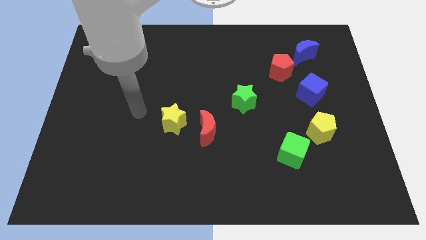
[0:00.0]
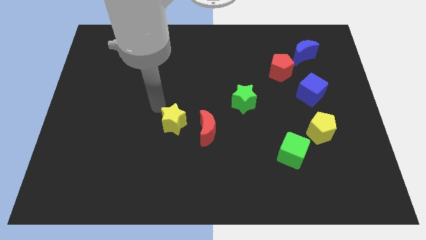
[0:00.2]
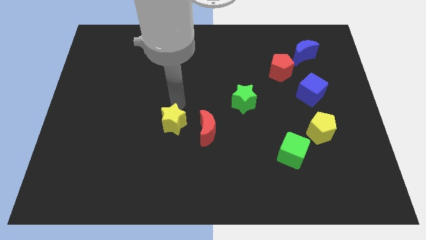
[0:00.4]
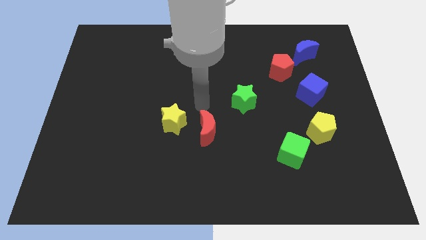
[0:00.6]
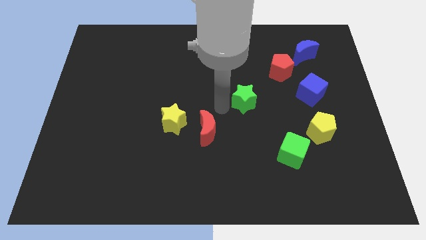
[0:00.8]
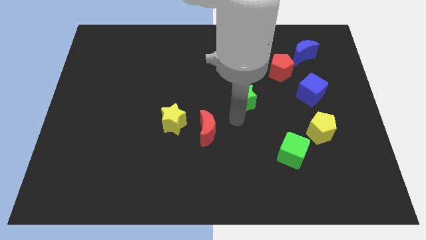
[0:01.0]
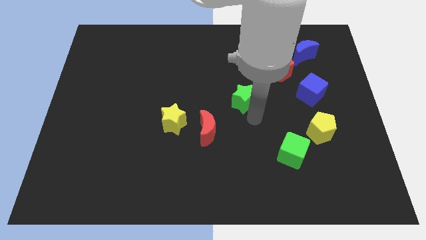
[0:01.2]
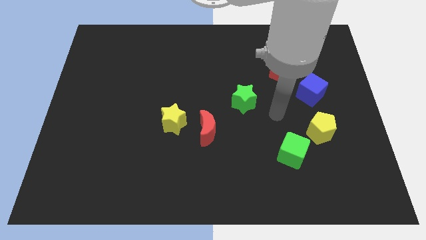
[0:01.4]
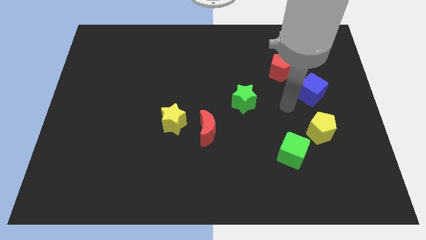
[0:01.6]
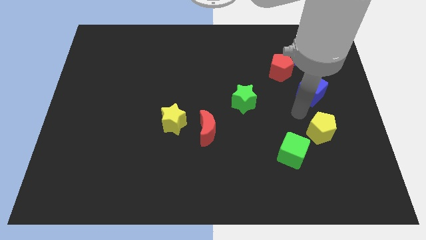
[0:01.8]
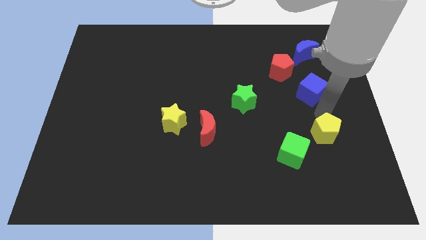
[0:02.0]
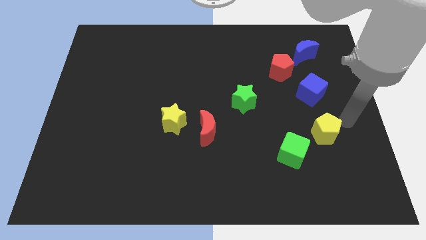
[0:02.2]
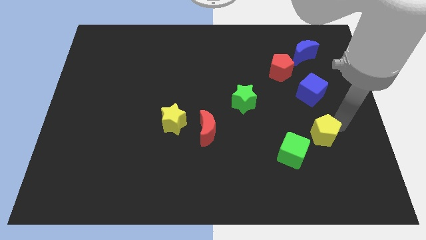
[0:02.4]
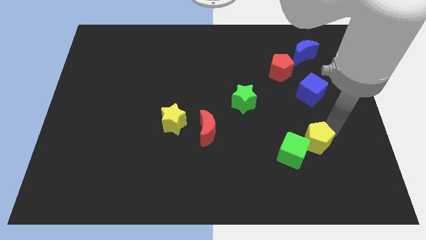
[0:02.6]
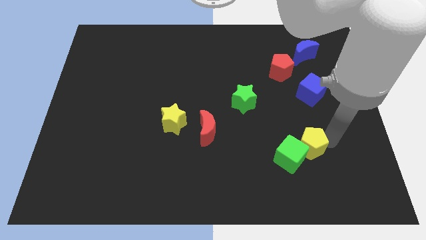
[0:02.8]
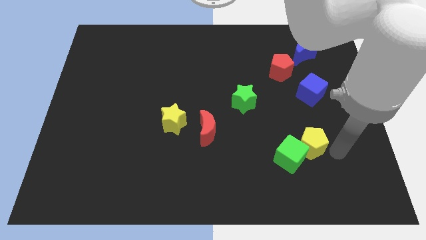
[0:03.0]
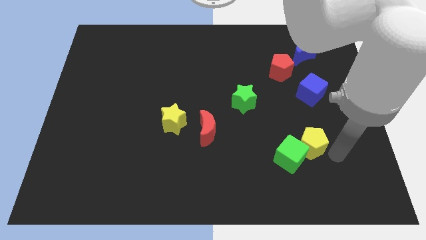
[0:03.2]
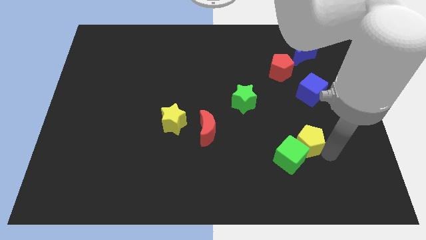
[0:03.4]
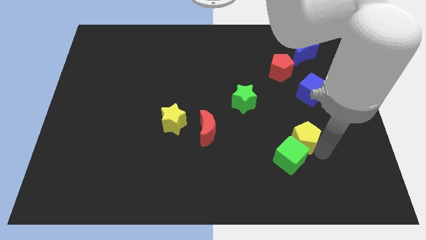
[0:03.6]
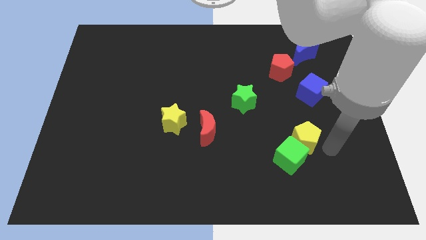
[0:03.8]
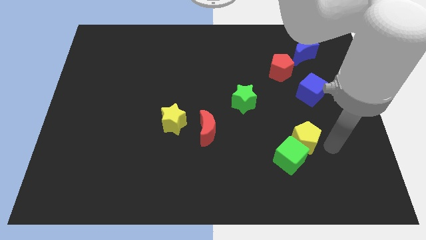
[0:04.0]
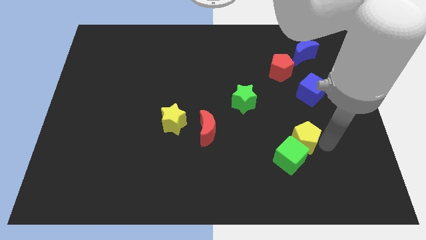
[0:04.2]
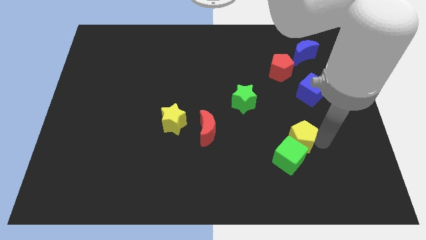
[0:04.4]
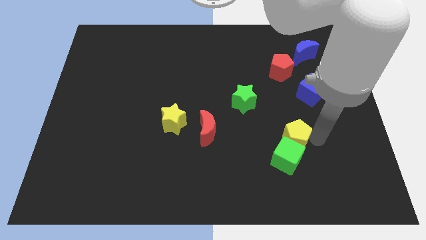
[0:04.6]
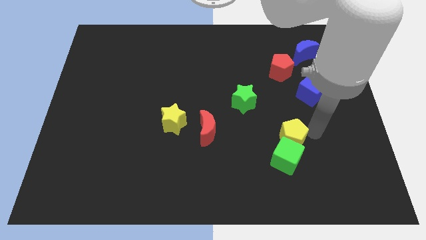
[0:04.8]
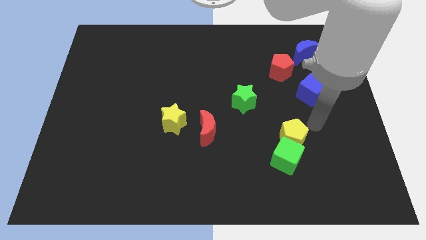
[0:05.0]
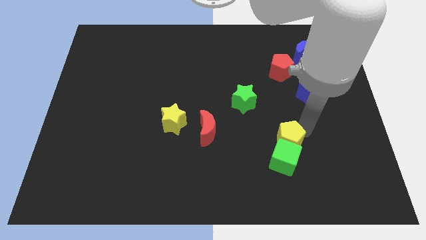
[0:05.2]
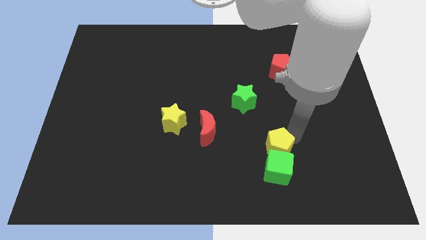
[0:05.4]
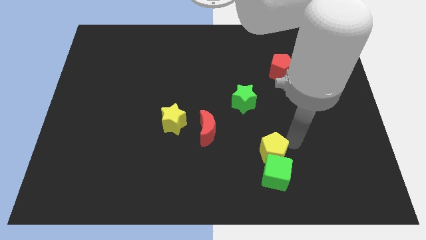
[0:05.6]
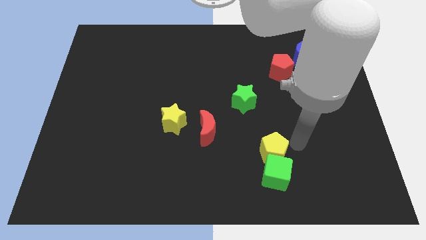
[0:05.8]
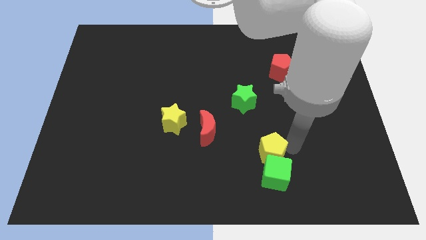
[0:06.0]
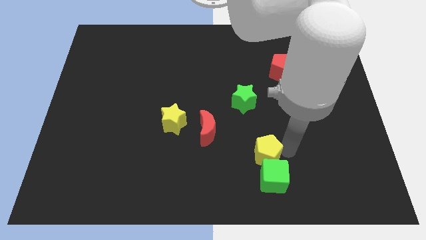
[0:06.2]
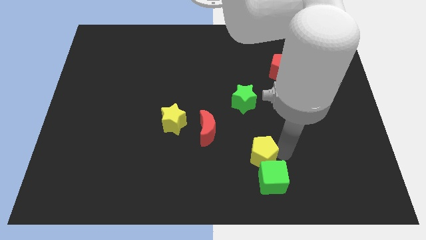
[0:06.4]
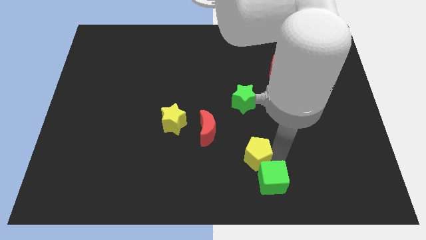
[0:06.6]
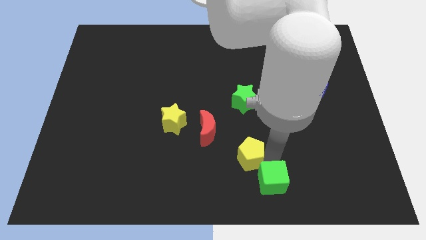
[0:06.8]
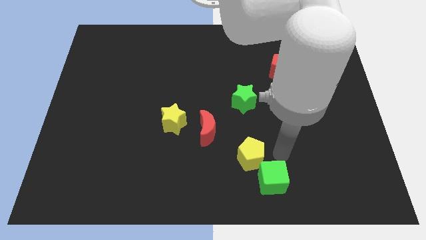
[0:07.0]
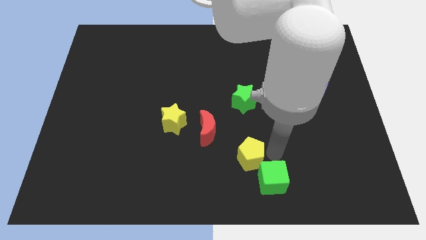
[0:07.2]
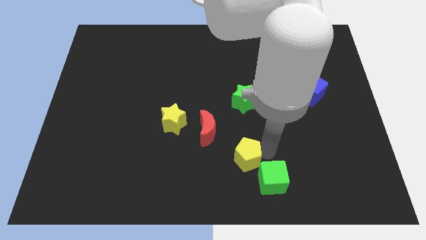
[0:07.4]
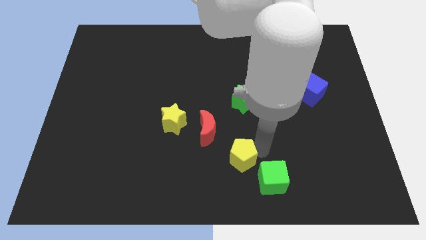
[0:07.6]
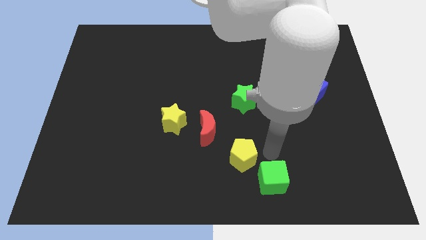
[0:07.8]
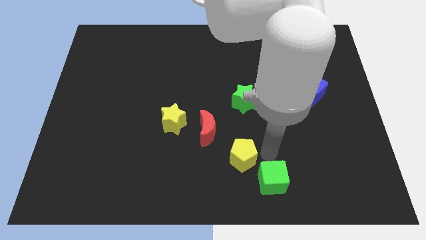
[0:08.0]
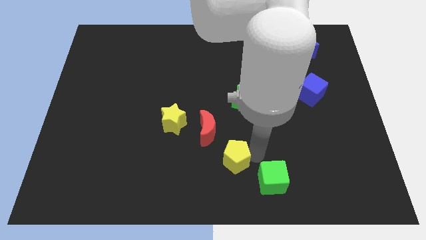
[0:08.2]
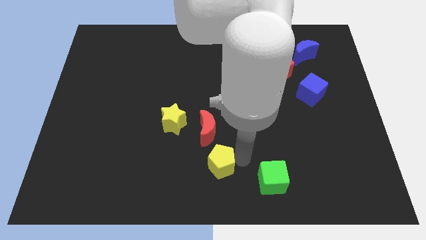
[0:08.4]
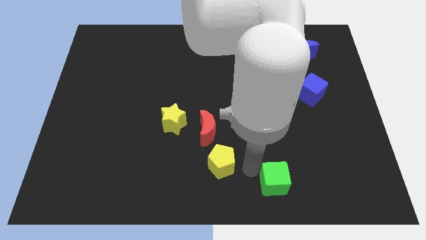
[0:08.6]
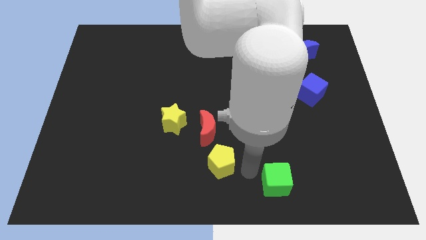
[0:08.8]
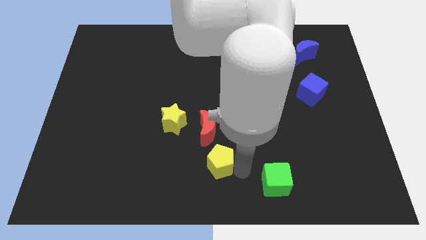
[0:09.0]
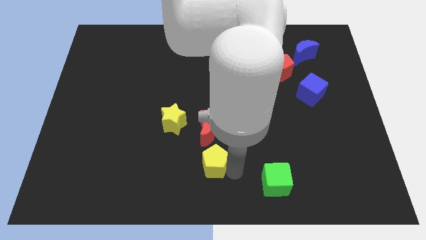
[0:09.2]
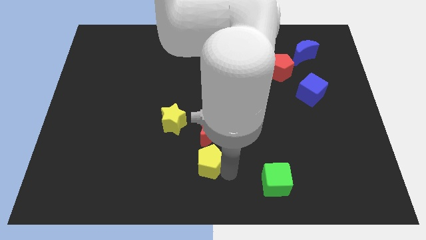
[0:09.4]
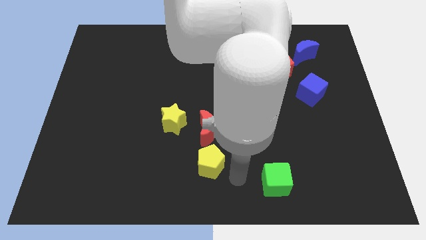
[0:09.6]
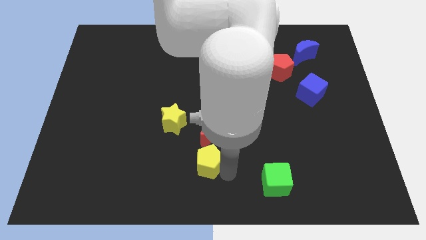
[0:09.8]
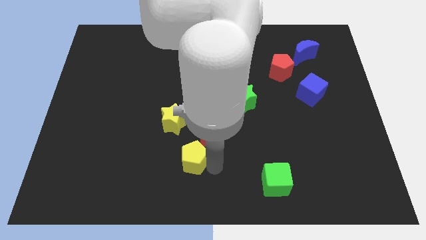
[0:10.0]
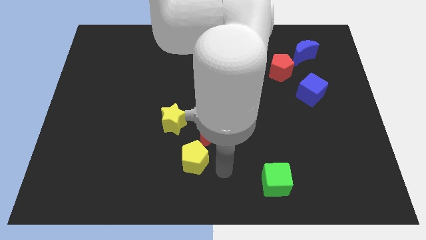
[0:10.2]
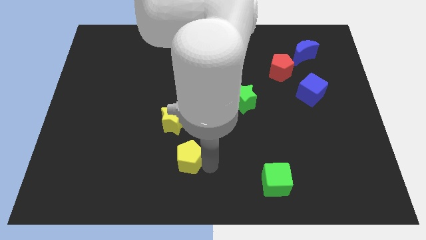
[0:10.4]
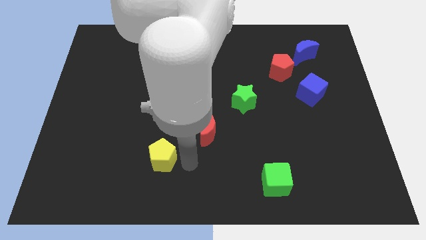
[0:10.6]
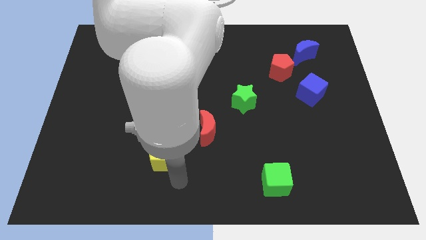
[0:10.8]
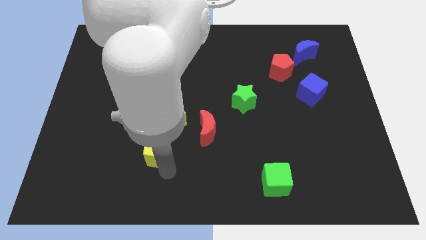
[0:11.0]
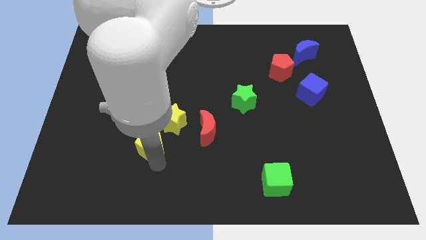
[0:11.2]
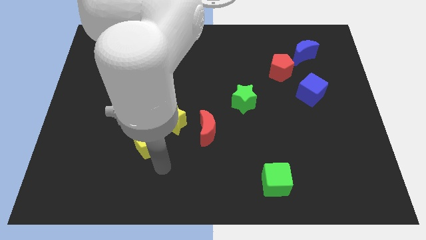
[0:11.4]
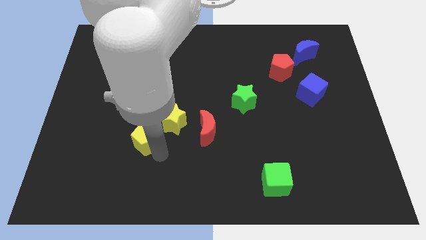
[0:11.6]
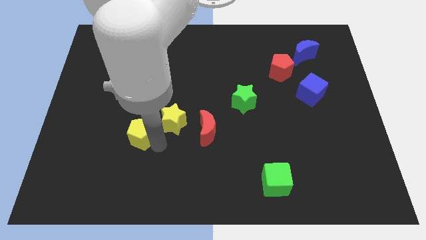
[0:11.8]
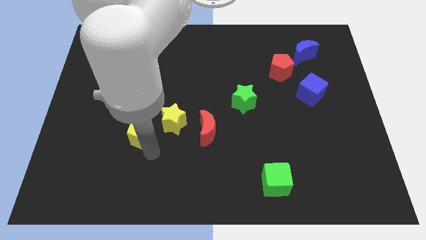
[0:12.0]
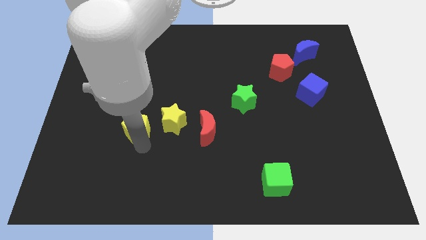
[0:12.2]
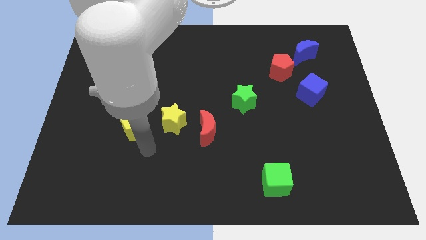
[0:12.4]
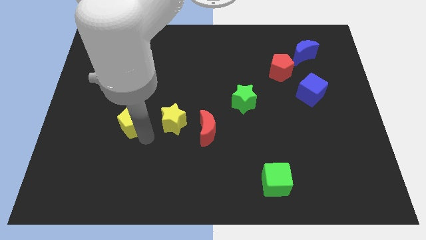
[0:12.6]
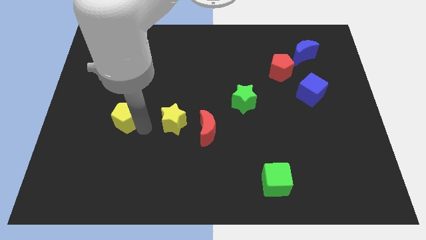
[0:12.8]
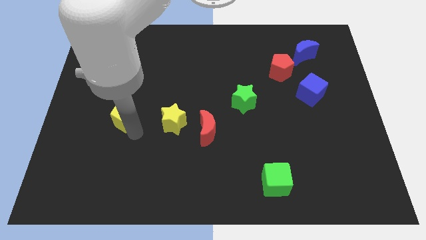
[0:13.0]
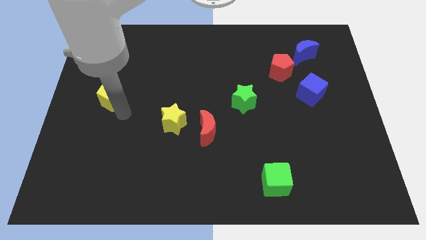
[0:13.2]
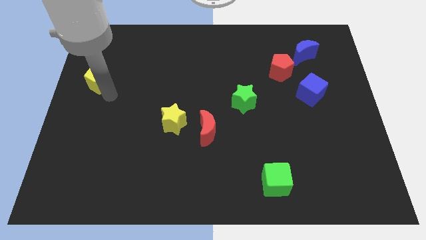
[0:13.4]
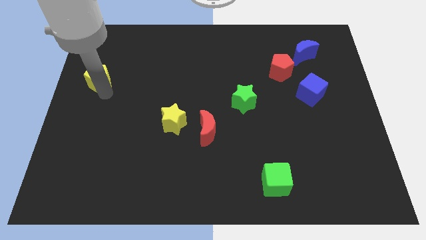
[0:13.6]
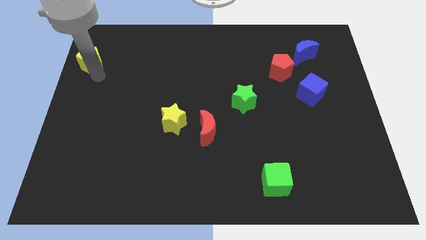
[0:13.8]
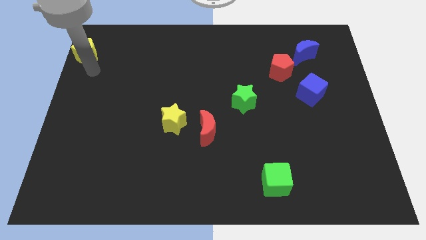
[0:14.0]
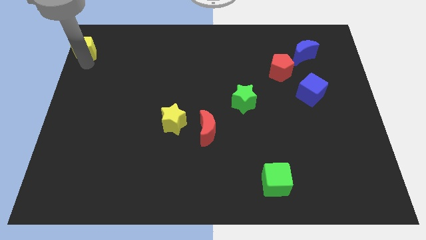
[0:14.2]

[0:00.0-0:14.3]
slide the yellow pentagon to the top left corner

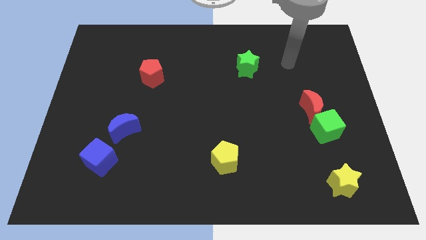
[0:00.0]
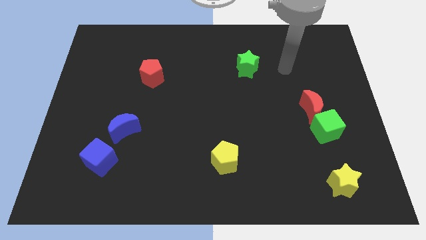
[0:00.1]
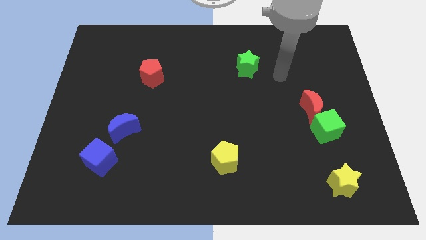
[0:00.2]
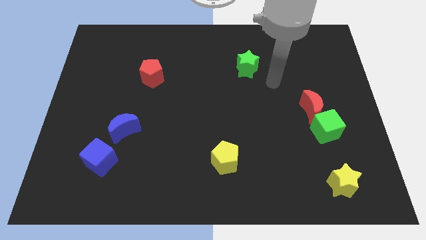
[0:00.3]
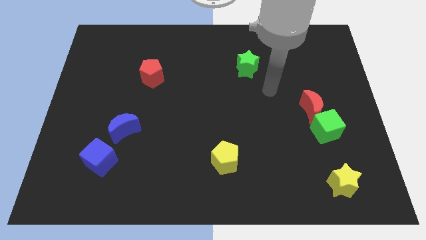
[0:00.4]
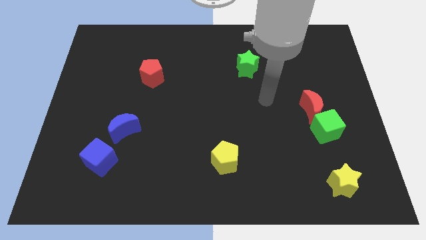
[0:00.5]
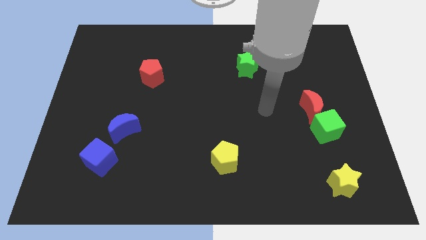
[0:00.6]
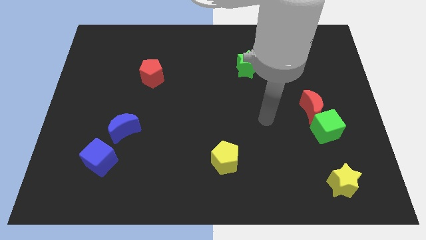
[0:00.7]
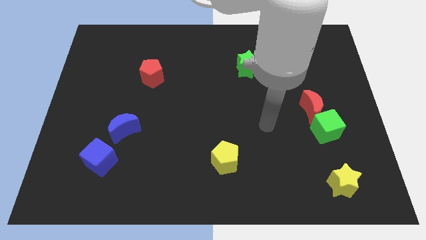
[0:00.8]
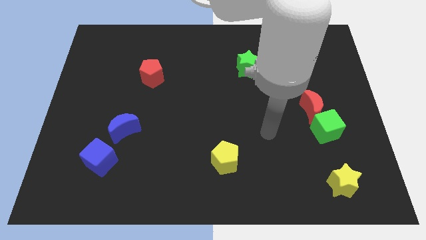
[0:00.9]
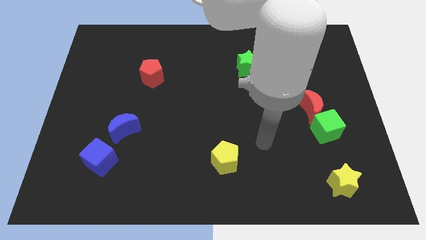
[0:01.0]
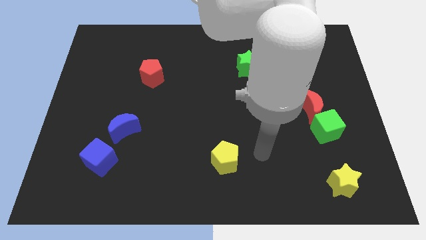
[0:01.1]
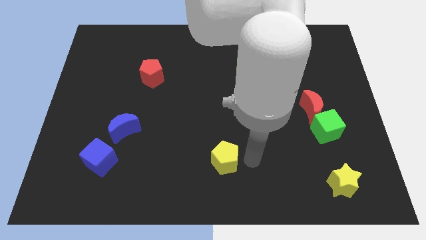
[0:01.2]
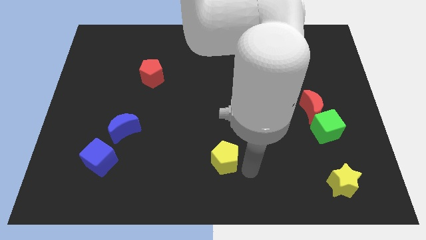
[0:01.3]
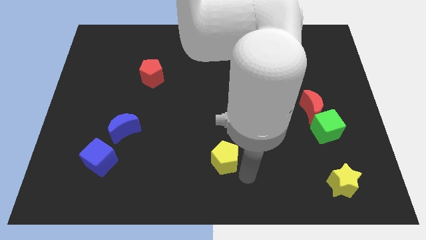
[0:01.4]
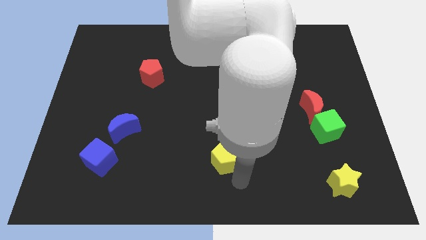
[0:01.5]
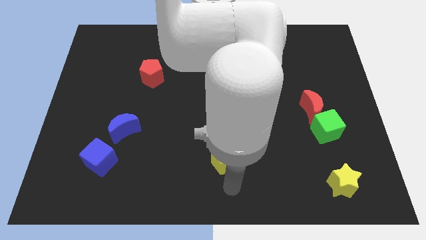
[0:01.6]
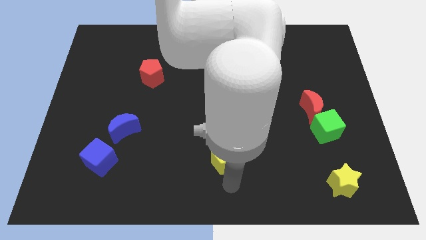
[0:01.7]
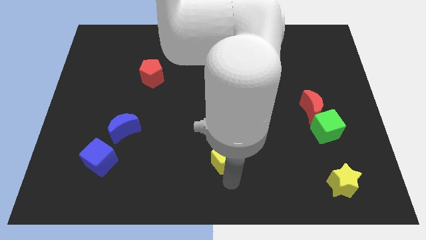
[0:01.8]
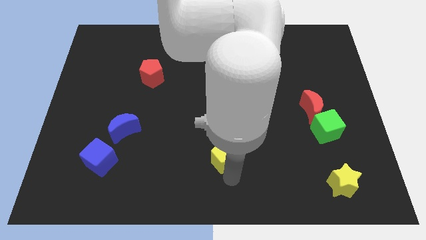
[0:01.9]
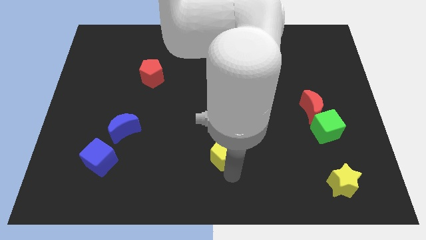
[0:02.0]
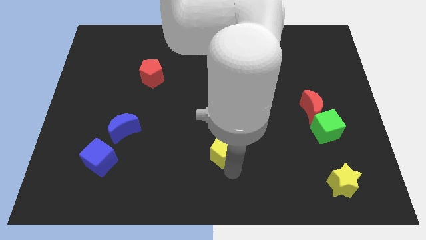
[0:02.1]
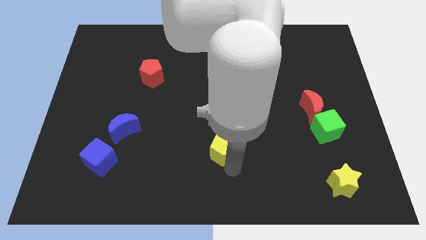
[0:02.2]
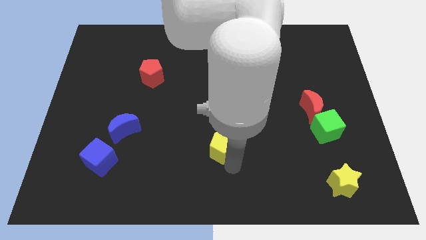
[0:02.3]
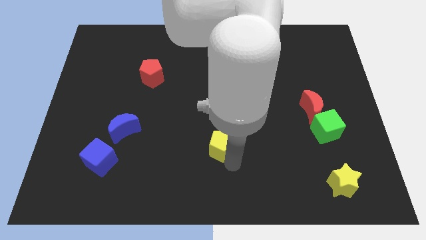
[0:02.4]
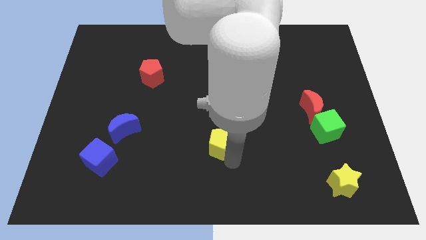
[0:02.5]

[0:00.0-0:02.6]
slide the yellow pentagon to the center
